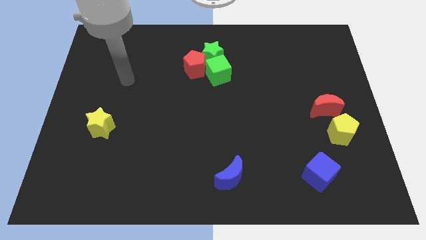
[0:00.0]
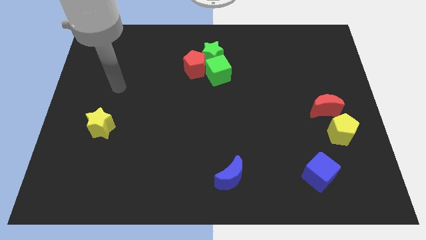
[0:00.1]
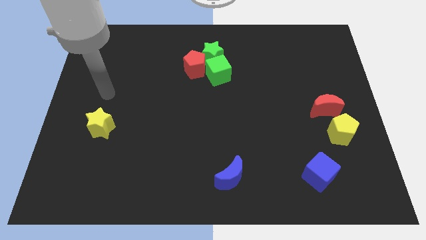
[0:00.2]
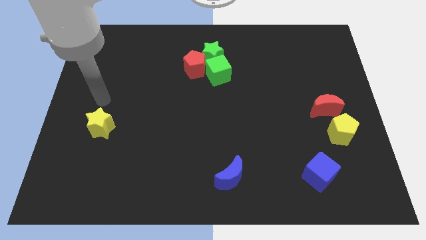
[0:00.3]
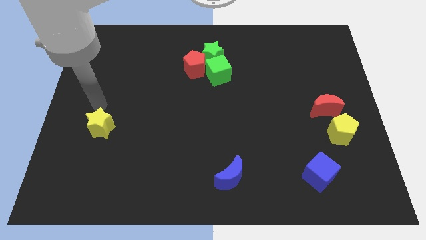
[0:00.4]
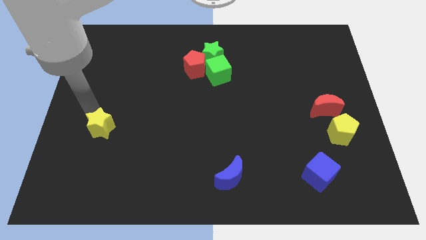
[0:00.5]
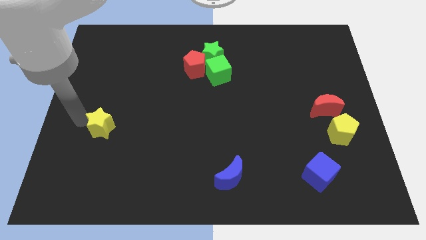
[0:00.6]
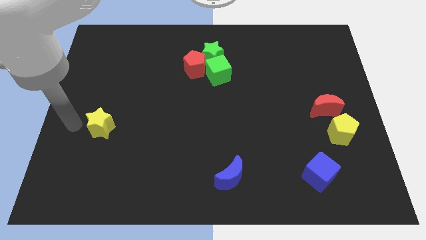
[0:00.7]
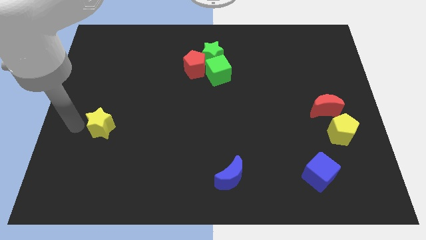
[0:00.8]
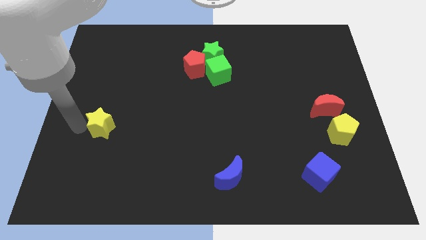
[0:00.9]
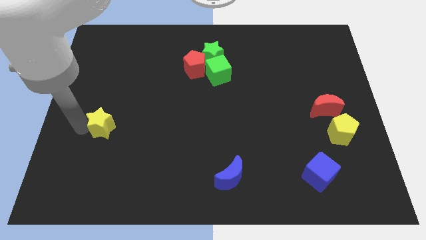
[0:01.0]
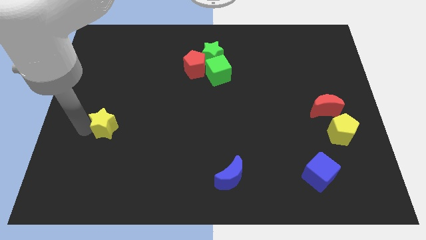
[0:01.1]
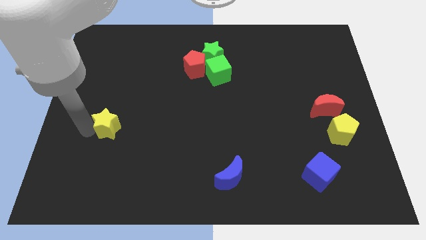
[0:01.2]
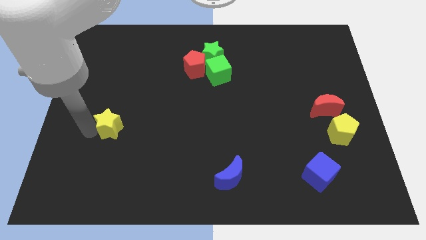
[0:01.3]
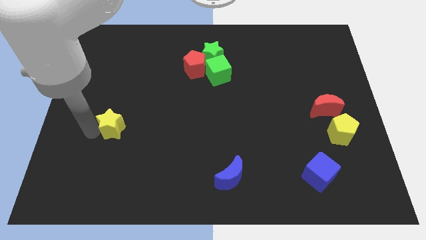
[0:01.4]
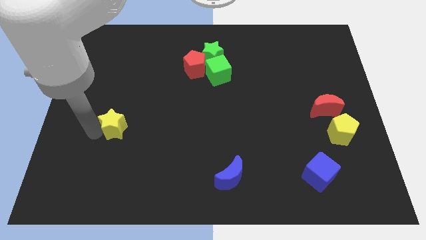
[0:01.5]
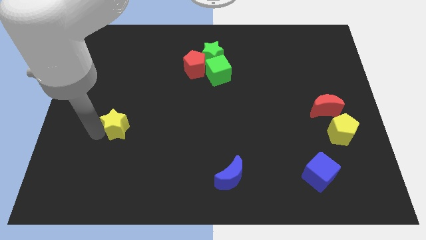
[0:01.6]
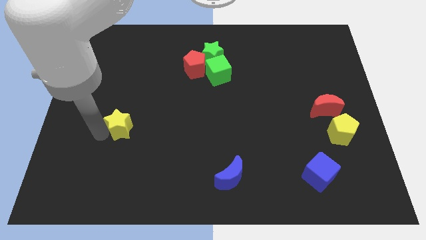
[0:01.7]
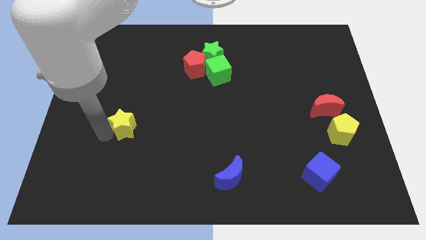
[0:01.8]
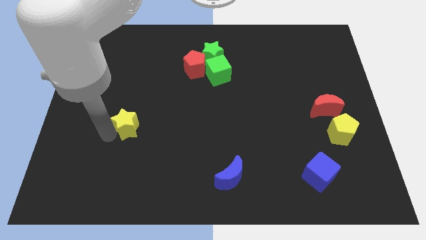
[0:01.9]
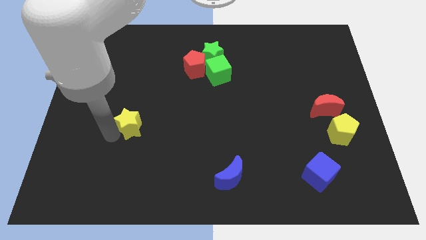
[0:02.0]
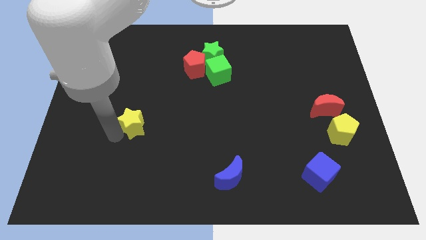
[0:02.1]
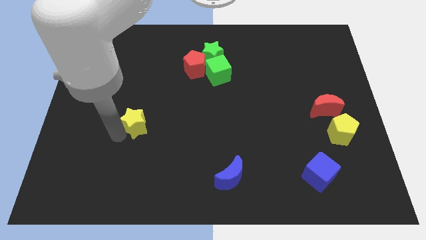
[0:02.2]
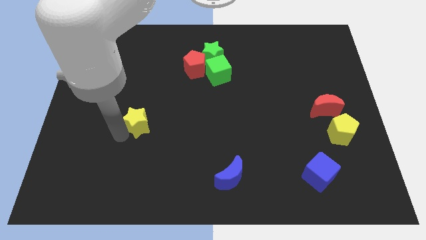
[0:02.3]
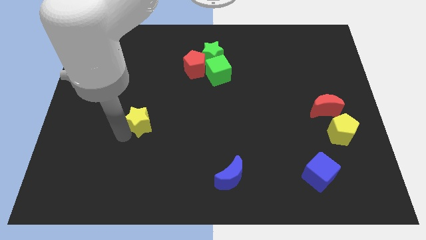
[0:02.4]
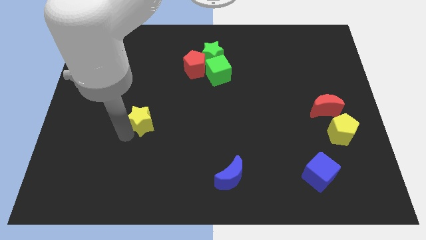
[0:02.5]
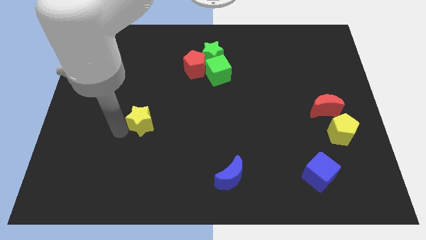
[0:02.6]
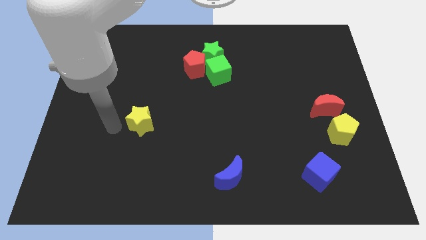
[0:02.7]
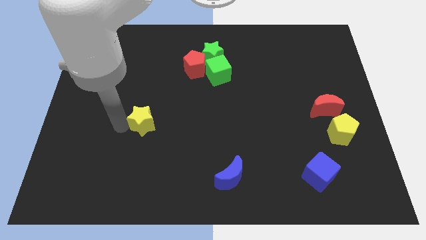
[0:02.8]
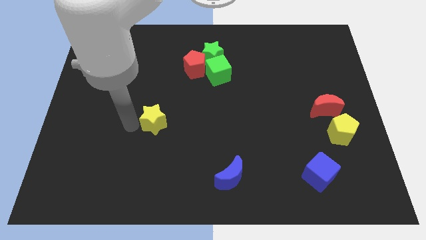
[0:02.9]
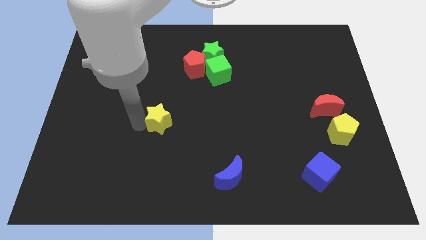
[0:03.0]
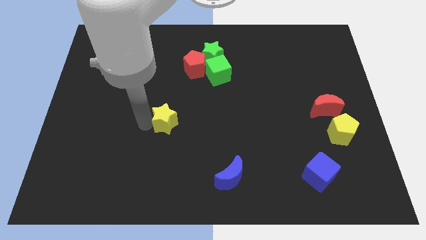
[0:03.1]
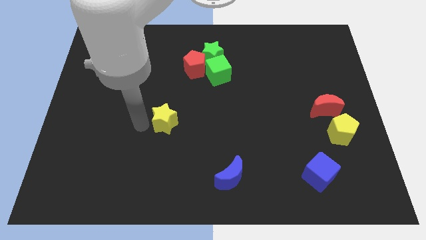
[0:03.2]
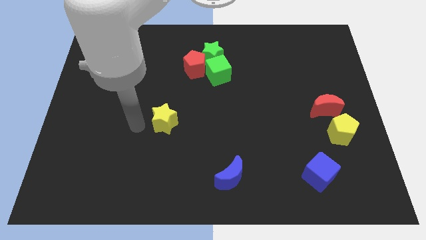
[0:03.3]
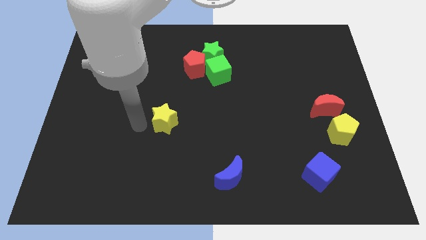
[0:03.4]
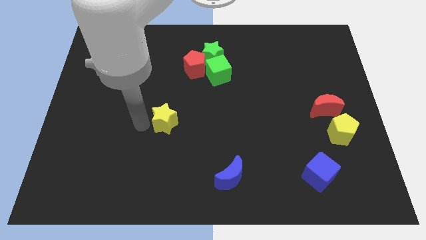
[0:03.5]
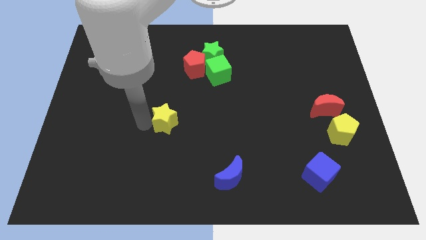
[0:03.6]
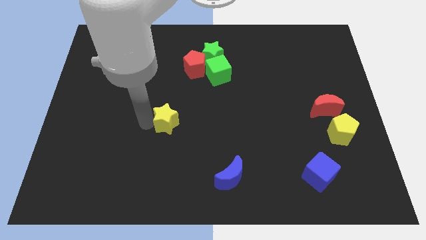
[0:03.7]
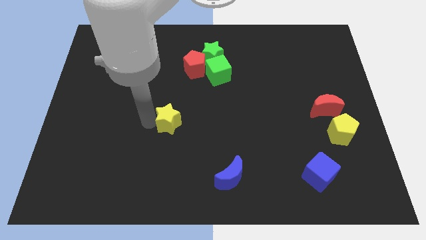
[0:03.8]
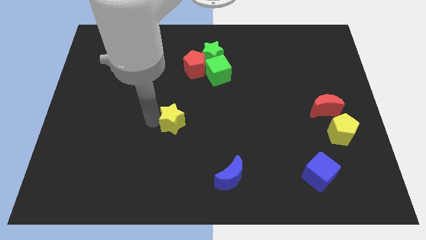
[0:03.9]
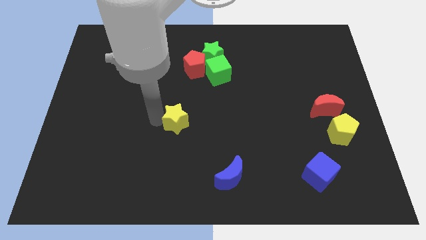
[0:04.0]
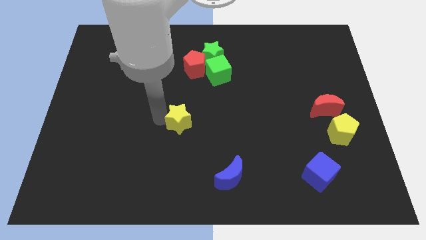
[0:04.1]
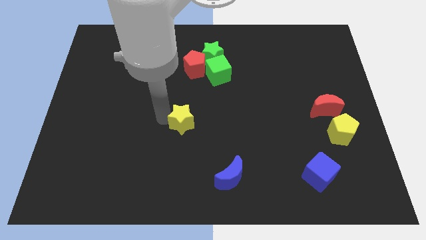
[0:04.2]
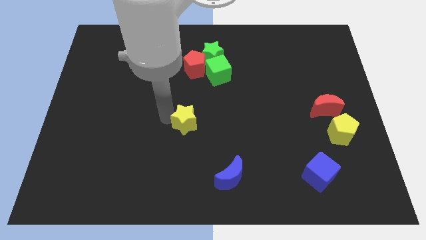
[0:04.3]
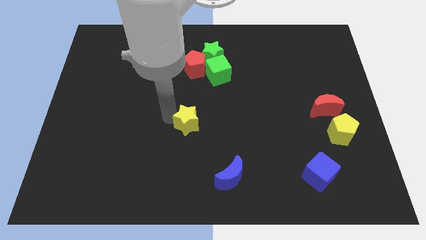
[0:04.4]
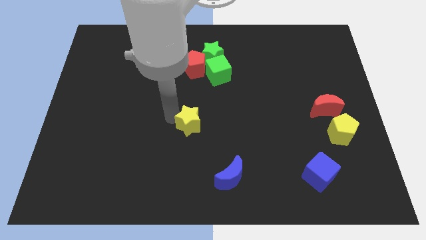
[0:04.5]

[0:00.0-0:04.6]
move the yellow star to the right

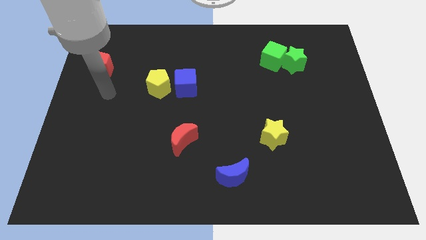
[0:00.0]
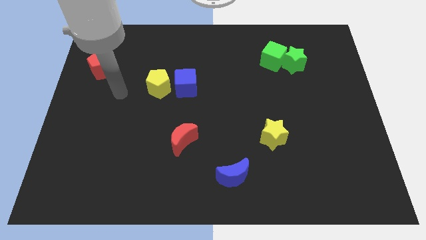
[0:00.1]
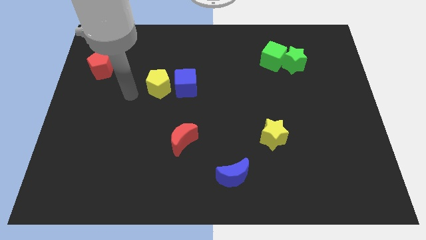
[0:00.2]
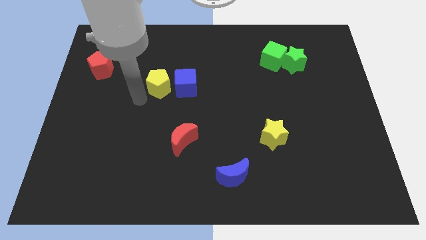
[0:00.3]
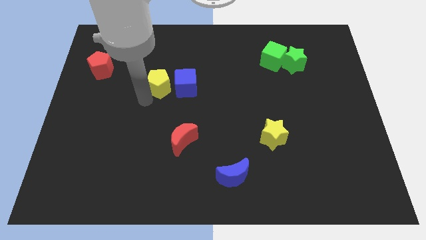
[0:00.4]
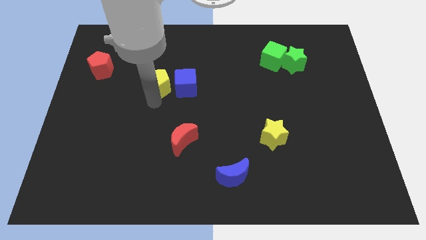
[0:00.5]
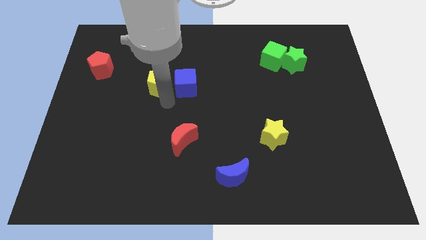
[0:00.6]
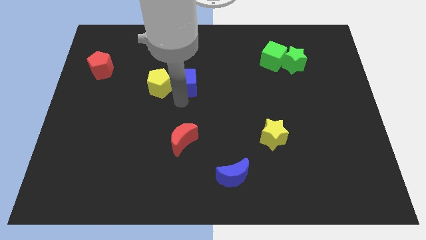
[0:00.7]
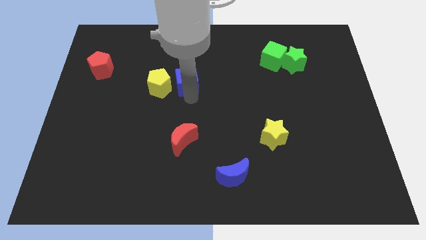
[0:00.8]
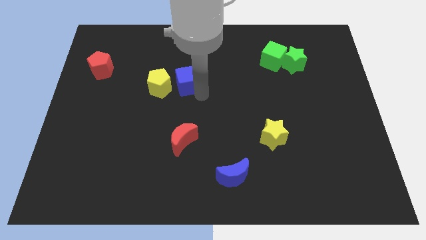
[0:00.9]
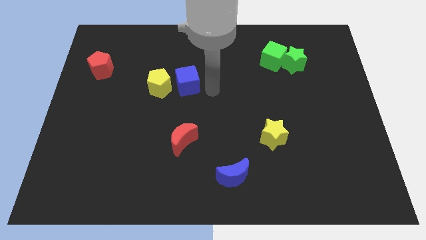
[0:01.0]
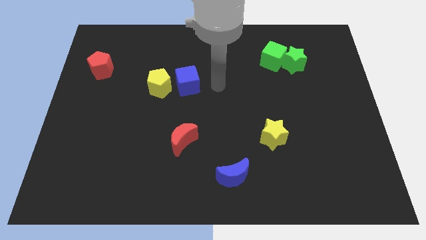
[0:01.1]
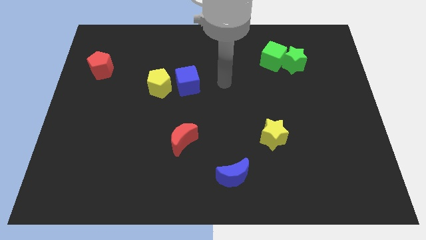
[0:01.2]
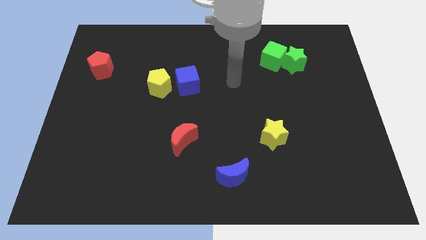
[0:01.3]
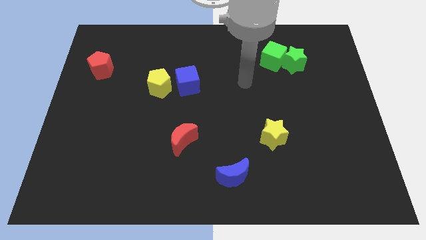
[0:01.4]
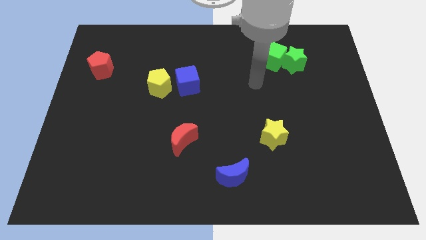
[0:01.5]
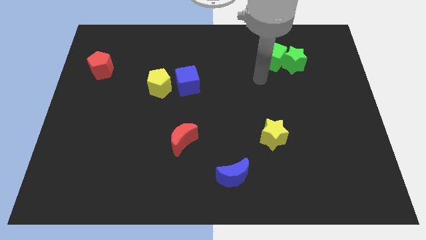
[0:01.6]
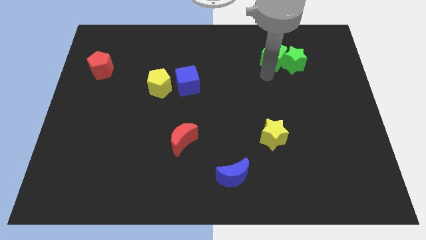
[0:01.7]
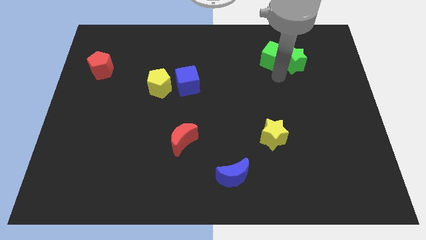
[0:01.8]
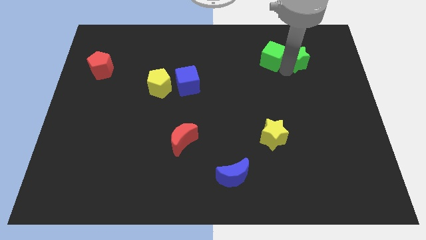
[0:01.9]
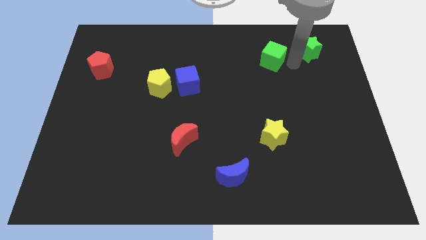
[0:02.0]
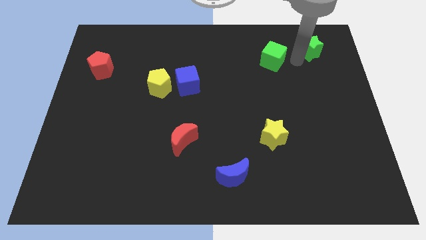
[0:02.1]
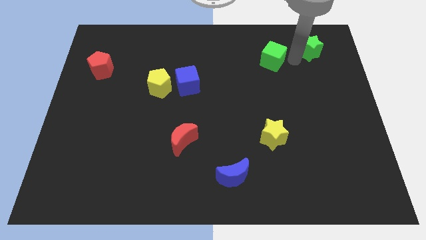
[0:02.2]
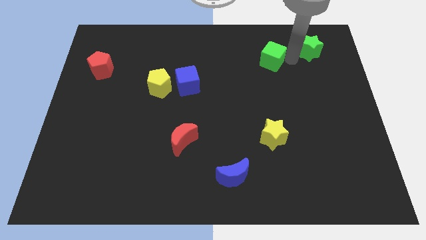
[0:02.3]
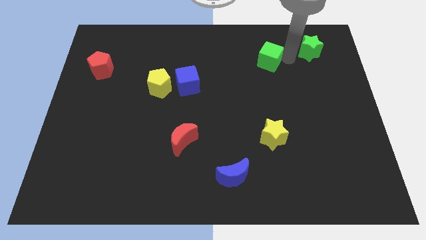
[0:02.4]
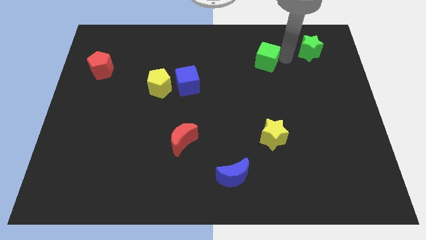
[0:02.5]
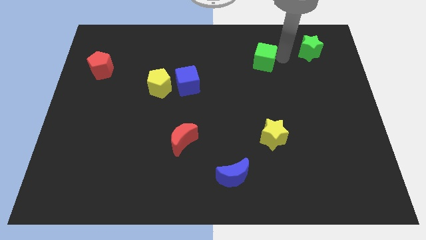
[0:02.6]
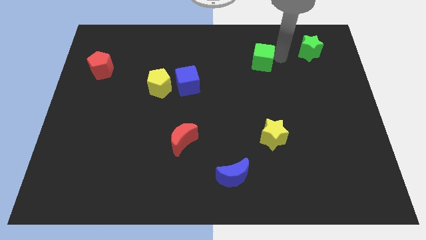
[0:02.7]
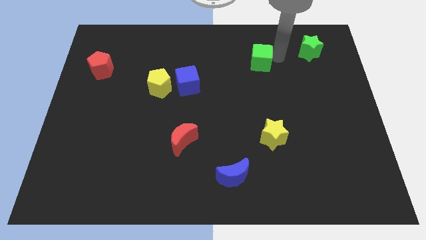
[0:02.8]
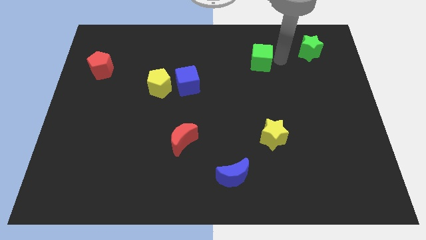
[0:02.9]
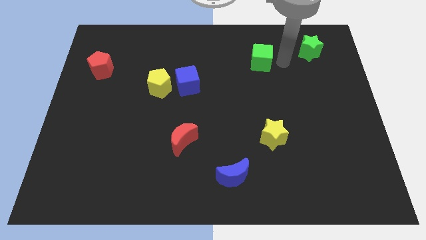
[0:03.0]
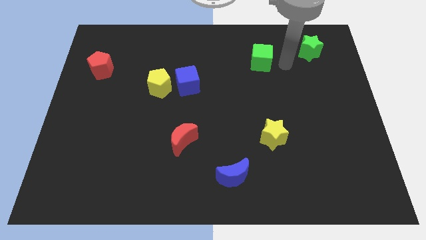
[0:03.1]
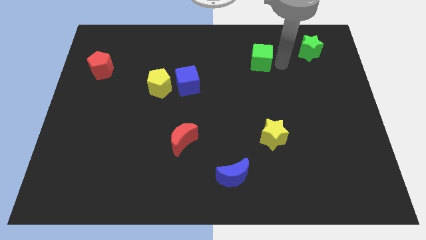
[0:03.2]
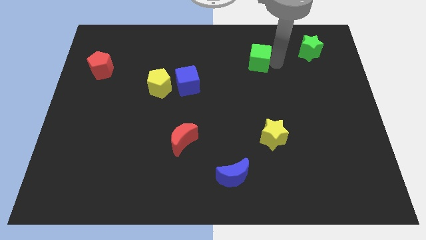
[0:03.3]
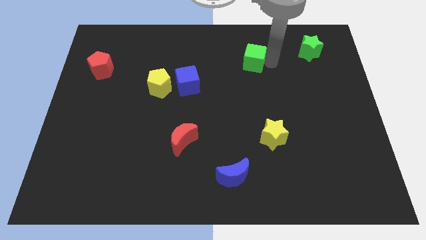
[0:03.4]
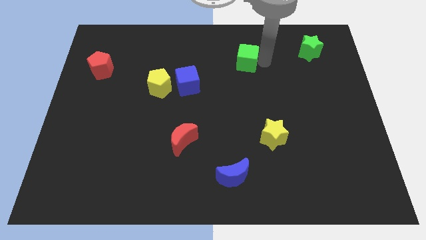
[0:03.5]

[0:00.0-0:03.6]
push the green cube to the left a little bit
